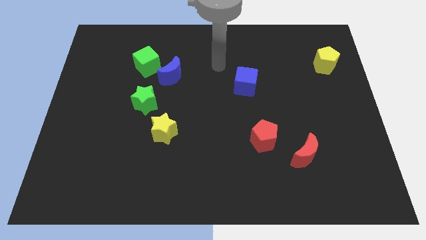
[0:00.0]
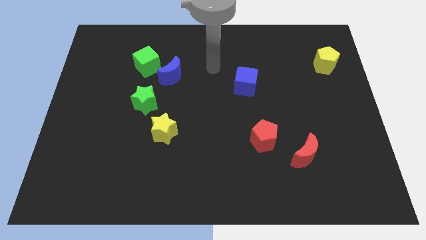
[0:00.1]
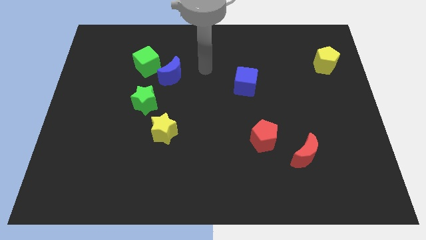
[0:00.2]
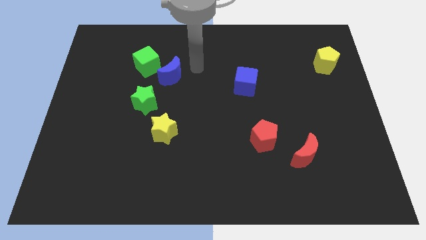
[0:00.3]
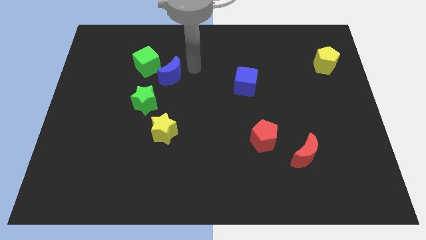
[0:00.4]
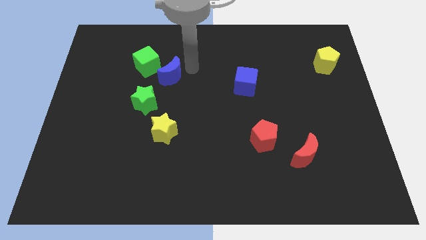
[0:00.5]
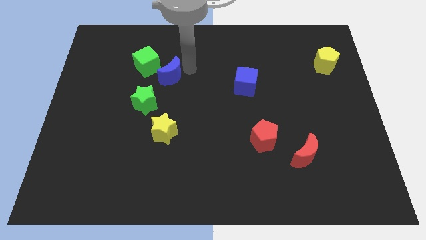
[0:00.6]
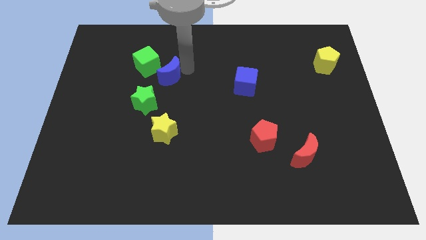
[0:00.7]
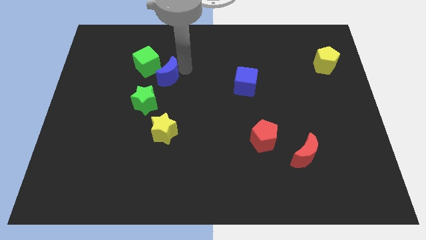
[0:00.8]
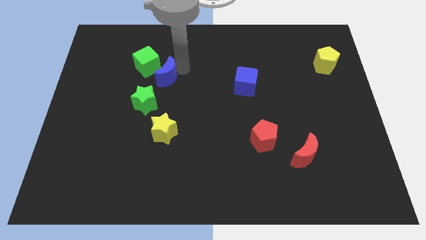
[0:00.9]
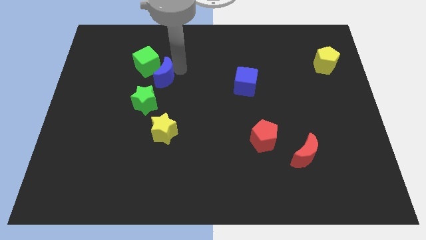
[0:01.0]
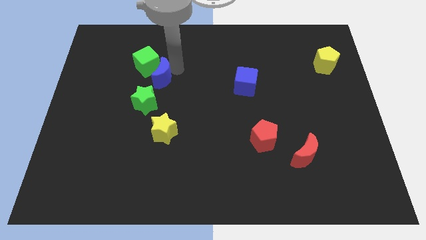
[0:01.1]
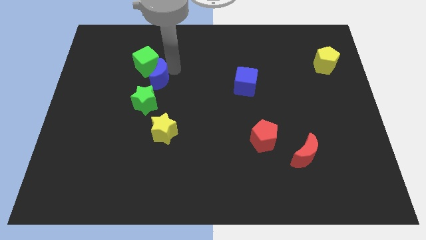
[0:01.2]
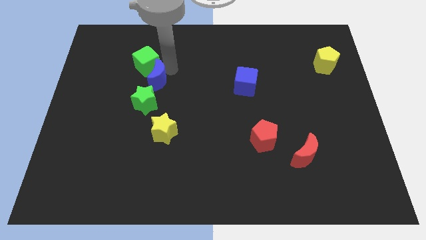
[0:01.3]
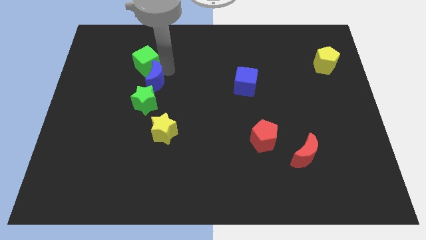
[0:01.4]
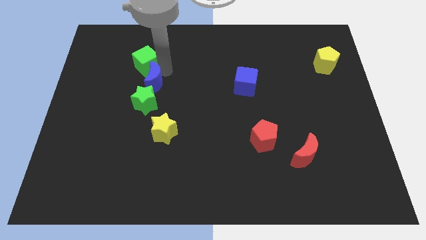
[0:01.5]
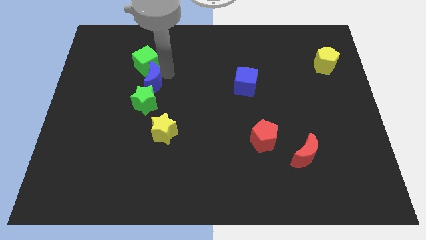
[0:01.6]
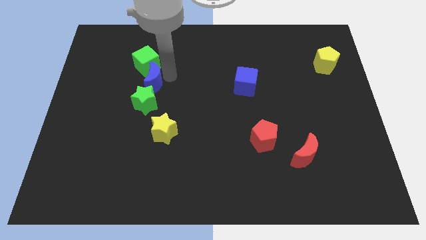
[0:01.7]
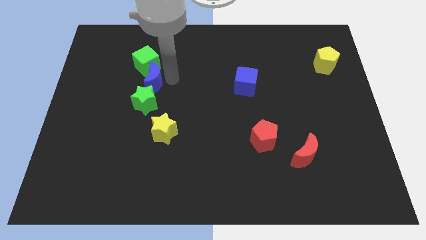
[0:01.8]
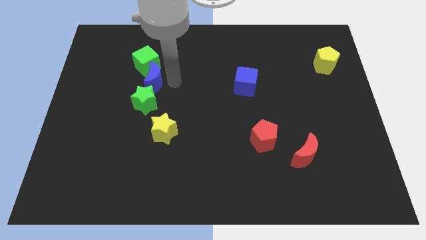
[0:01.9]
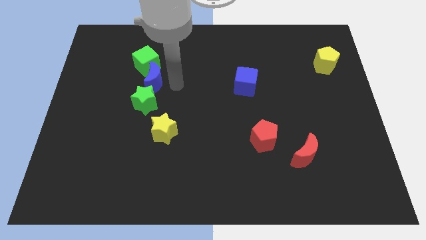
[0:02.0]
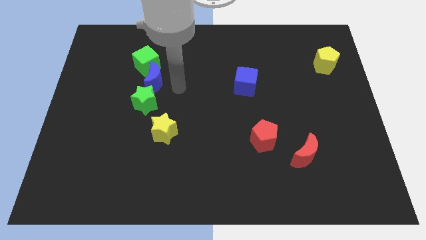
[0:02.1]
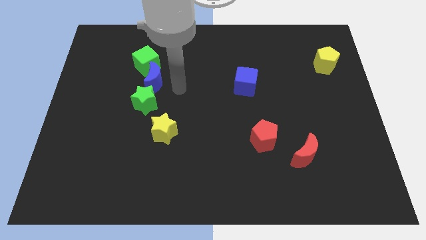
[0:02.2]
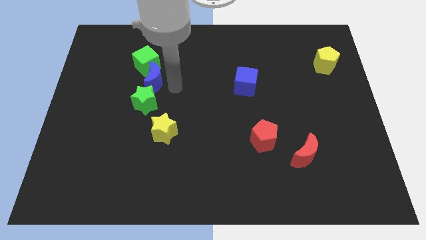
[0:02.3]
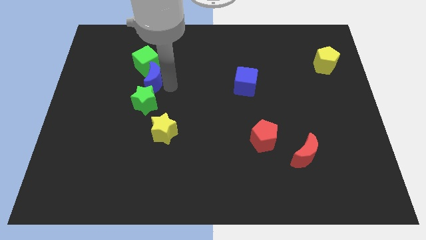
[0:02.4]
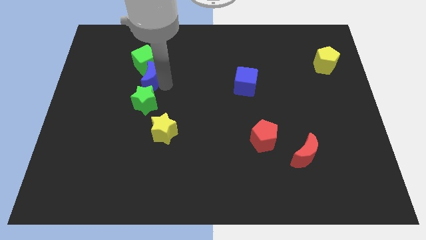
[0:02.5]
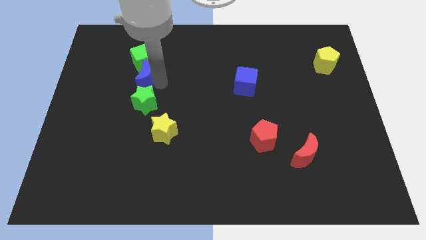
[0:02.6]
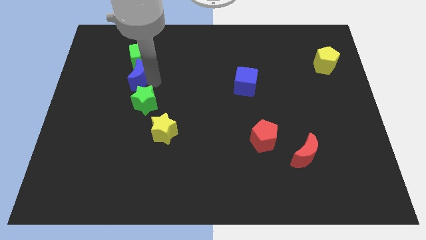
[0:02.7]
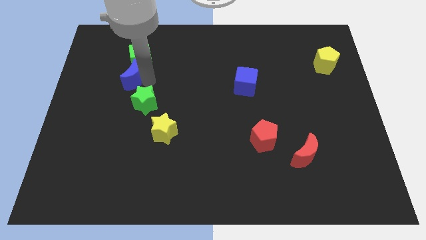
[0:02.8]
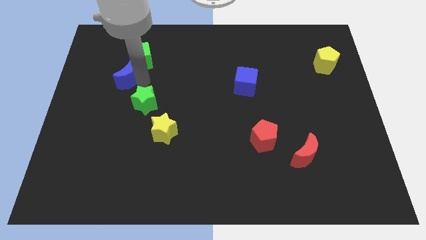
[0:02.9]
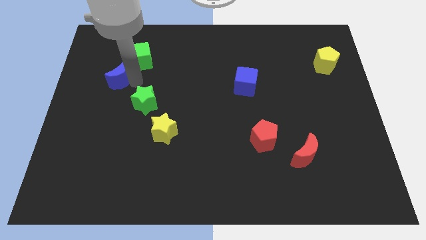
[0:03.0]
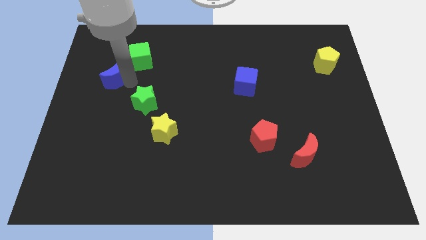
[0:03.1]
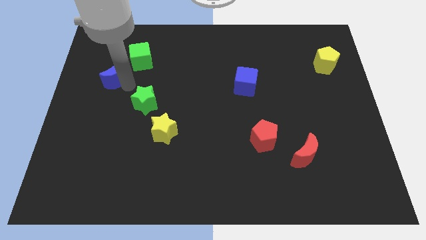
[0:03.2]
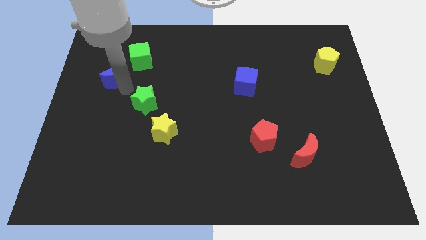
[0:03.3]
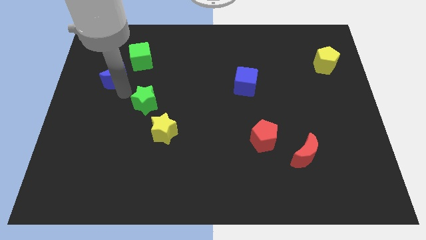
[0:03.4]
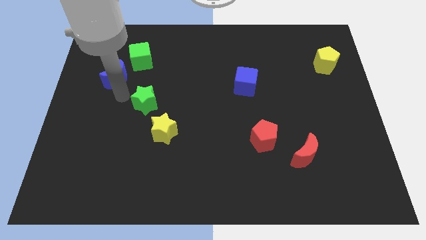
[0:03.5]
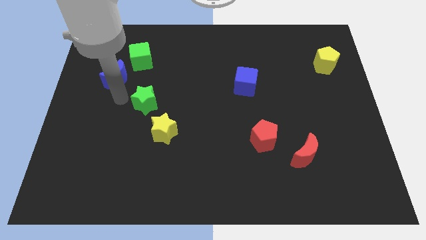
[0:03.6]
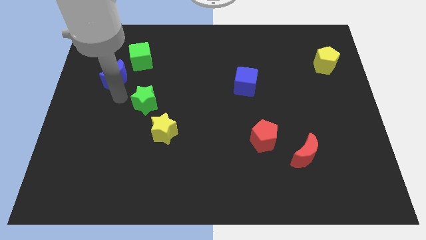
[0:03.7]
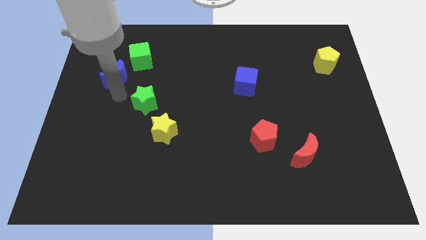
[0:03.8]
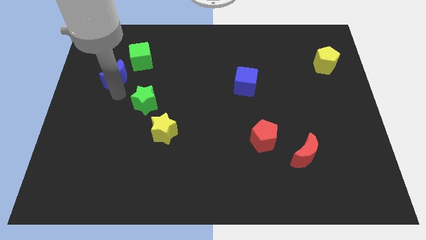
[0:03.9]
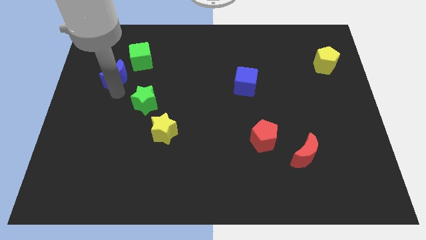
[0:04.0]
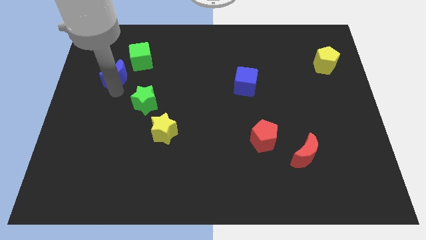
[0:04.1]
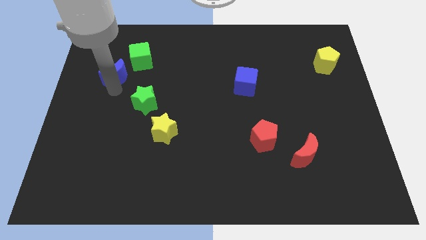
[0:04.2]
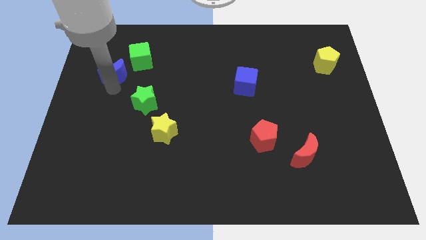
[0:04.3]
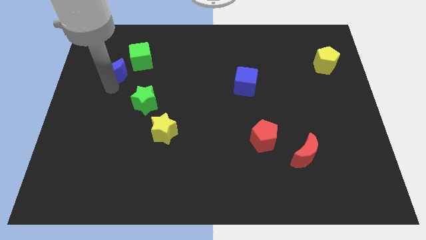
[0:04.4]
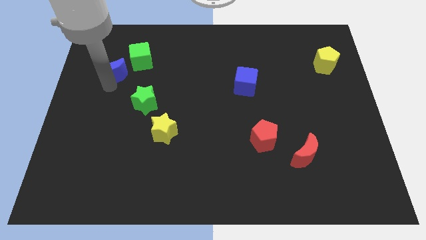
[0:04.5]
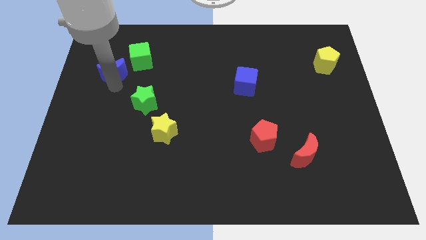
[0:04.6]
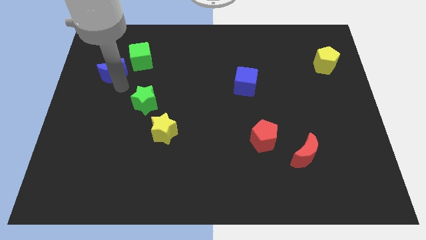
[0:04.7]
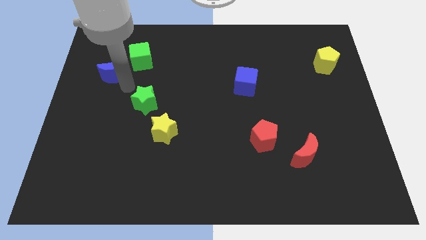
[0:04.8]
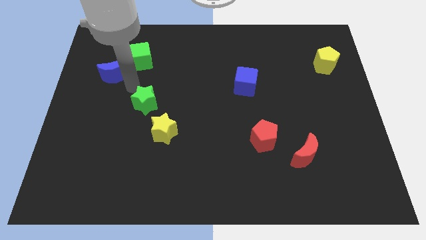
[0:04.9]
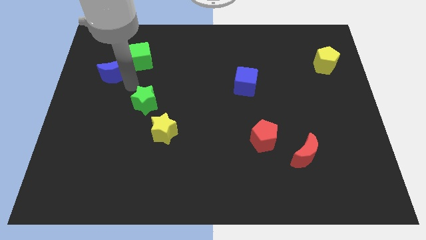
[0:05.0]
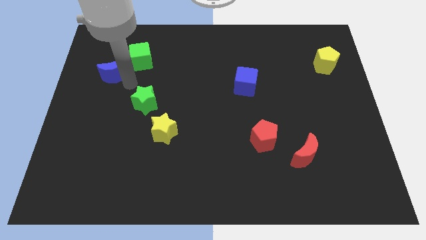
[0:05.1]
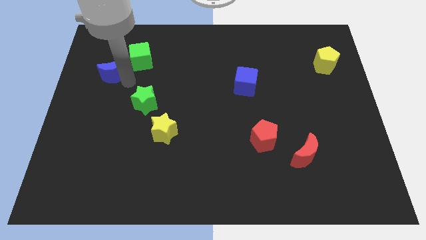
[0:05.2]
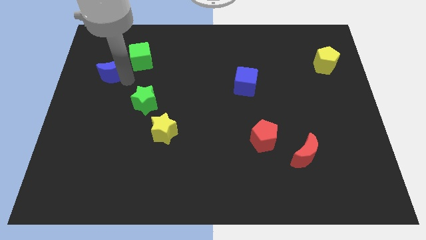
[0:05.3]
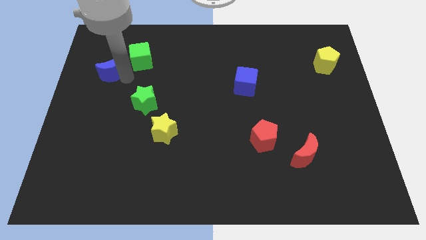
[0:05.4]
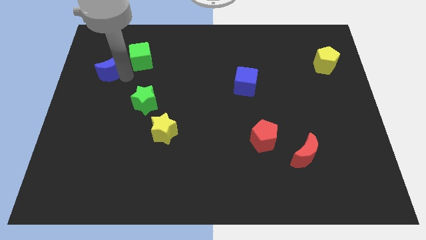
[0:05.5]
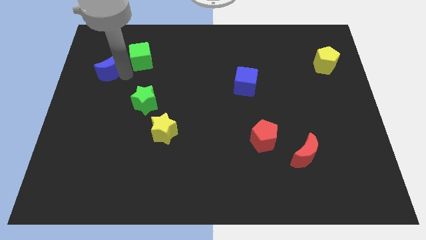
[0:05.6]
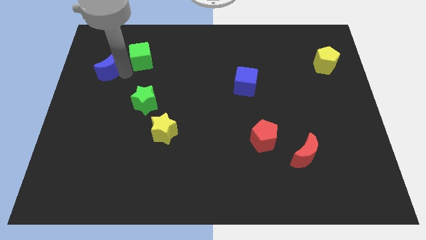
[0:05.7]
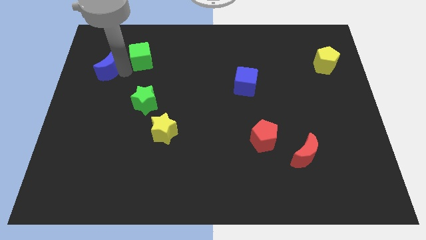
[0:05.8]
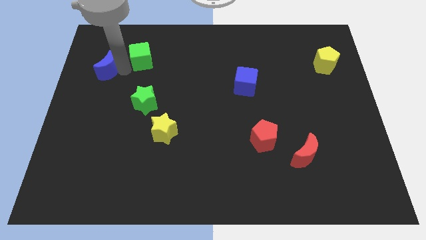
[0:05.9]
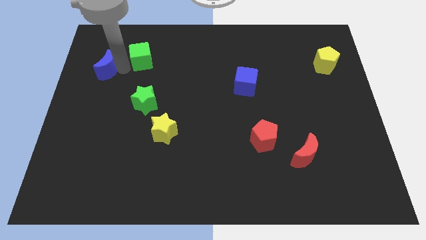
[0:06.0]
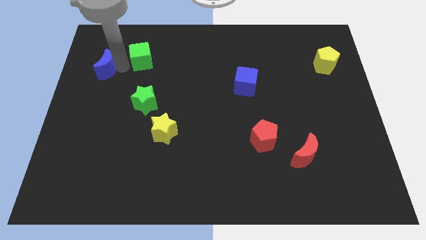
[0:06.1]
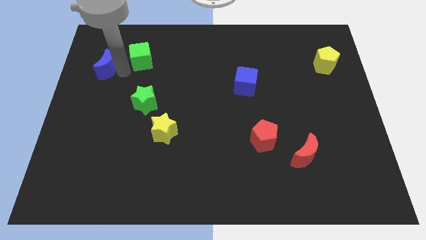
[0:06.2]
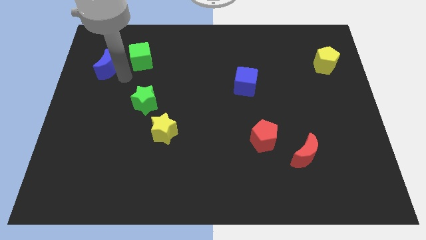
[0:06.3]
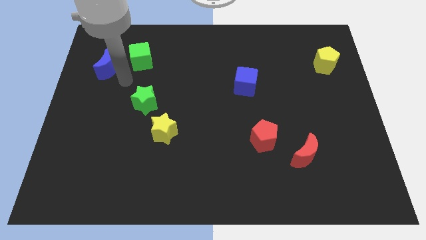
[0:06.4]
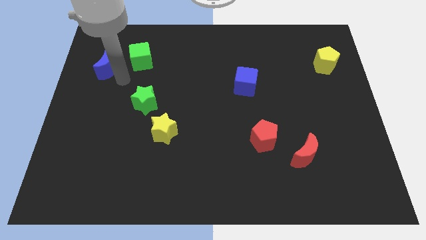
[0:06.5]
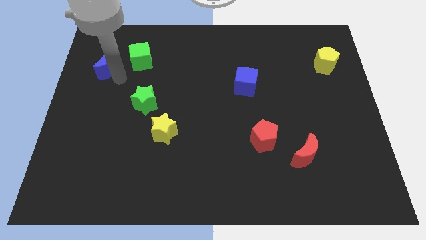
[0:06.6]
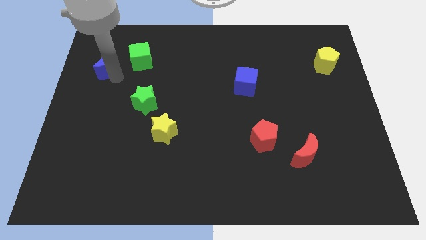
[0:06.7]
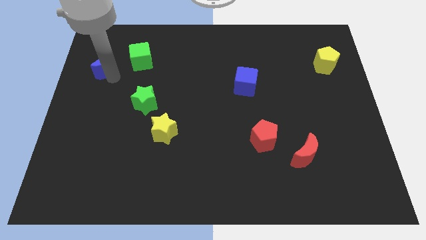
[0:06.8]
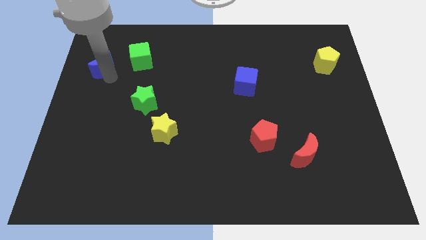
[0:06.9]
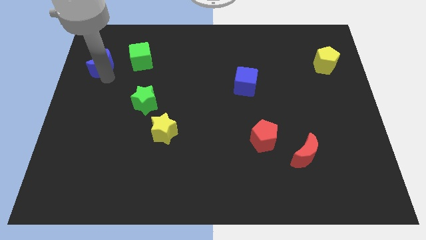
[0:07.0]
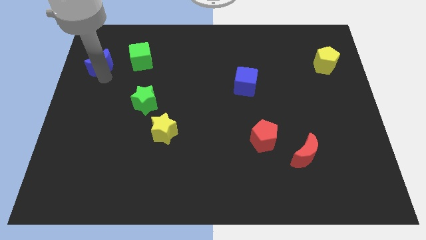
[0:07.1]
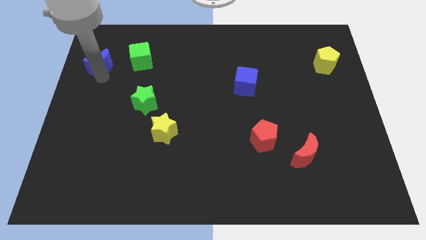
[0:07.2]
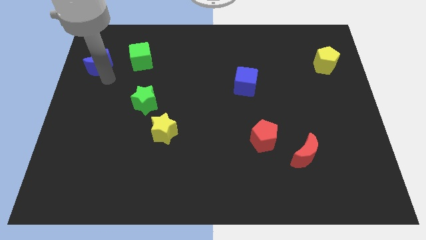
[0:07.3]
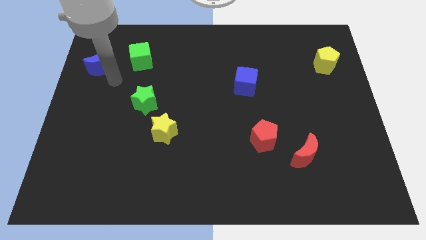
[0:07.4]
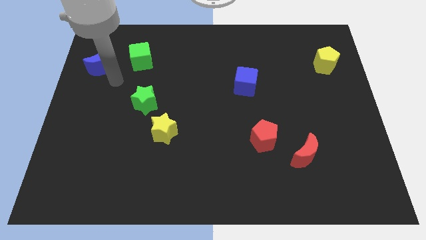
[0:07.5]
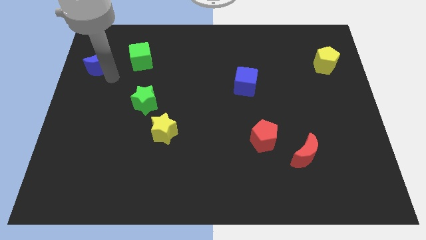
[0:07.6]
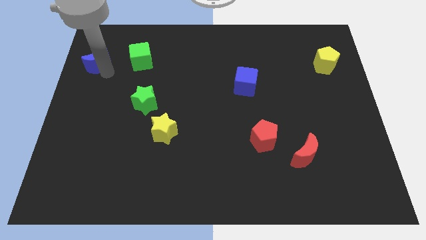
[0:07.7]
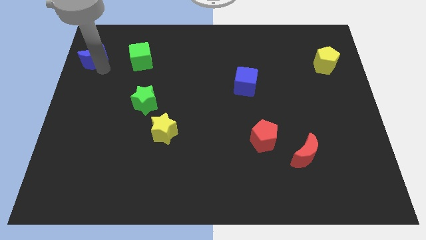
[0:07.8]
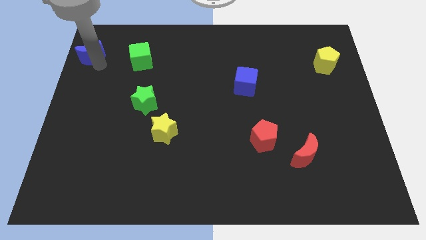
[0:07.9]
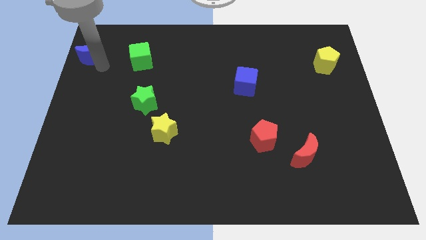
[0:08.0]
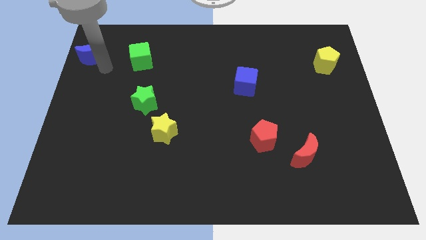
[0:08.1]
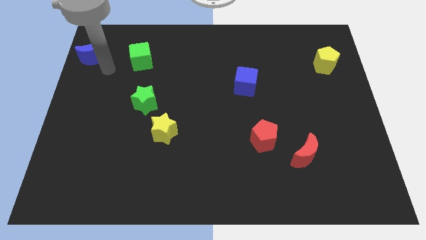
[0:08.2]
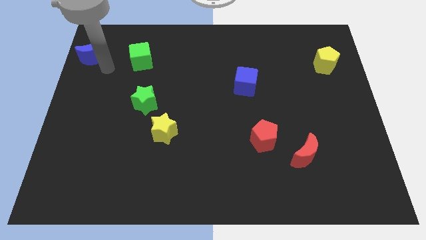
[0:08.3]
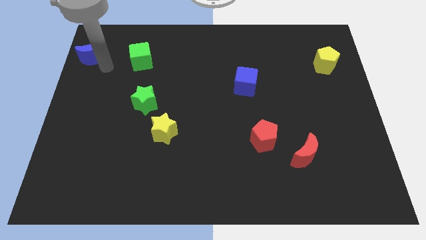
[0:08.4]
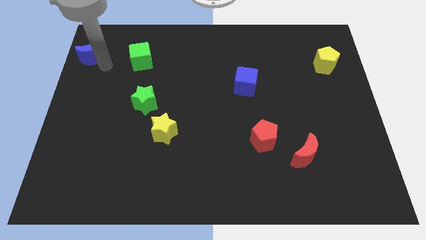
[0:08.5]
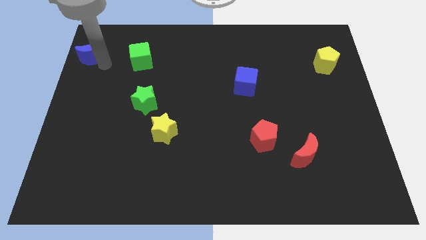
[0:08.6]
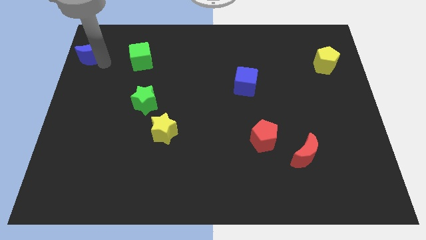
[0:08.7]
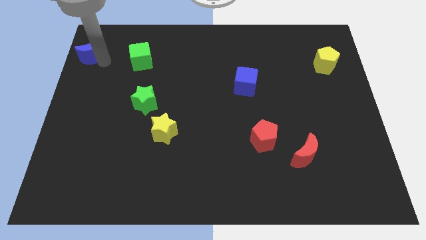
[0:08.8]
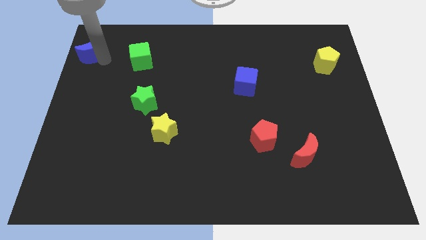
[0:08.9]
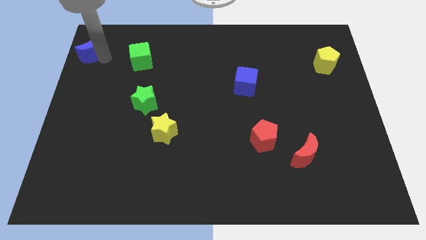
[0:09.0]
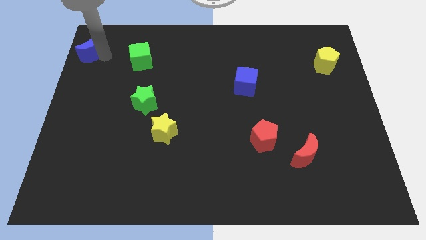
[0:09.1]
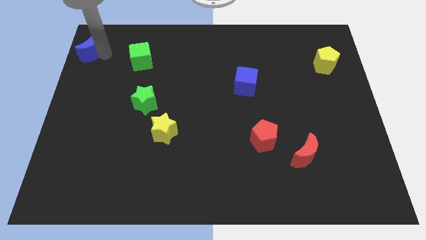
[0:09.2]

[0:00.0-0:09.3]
put the blue moon to the upper left corner
